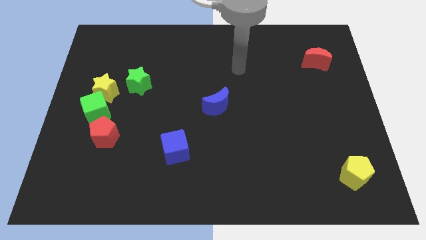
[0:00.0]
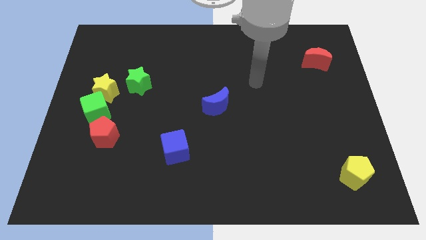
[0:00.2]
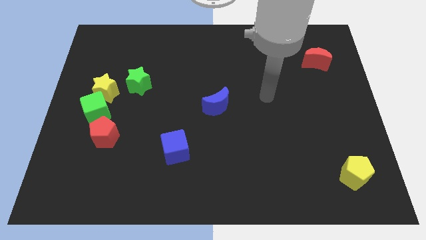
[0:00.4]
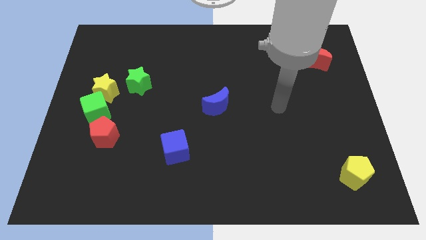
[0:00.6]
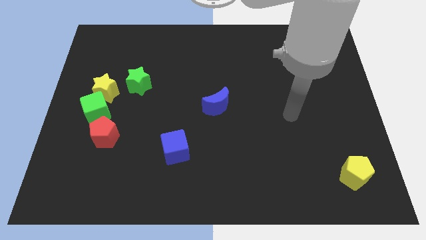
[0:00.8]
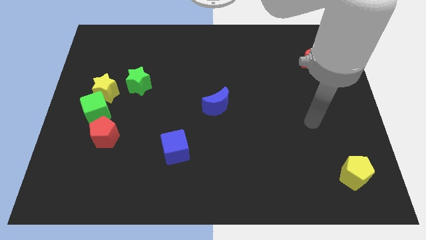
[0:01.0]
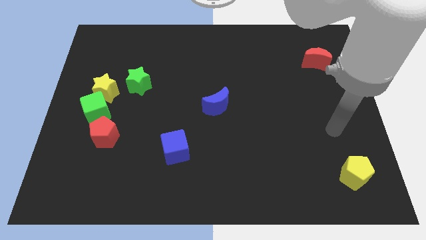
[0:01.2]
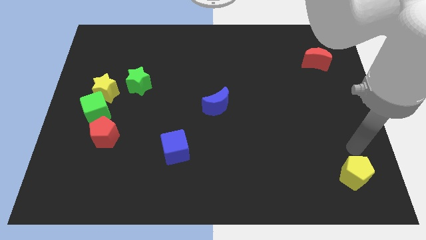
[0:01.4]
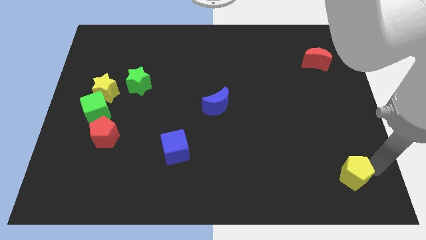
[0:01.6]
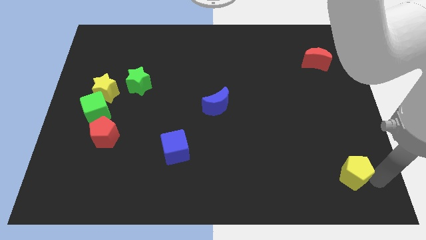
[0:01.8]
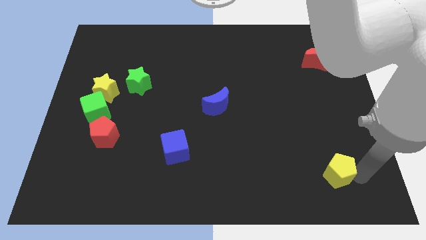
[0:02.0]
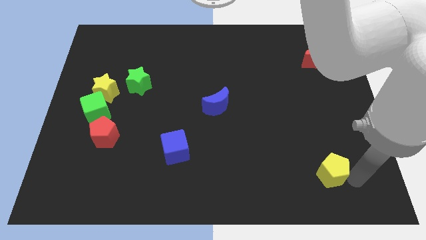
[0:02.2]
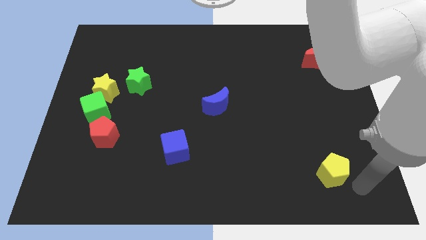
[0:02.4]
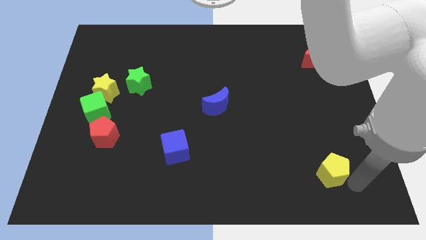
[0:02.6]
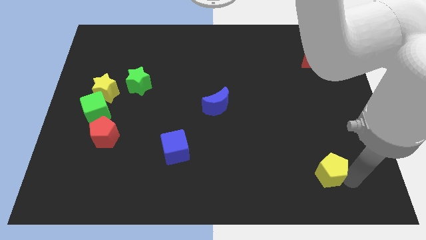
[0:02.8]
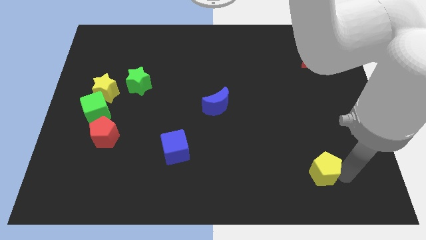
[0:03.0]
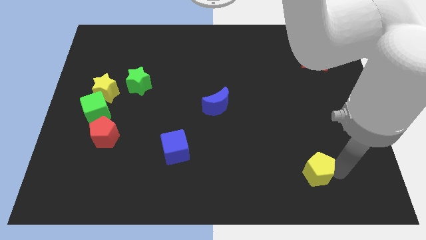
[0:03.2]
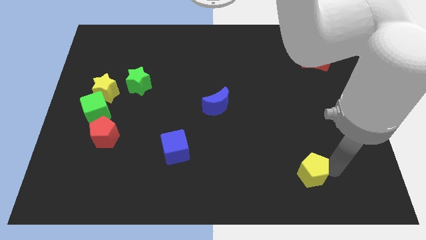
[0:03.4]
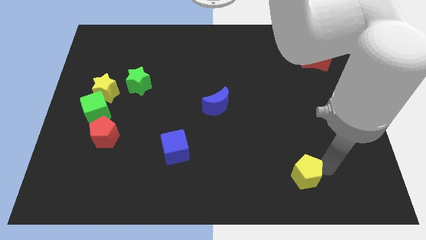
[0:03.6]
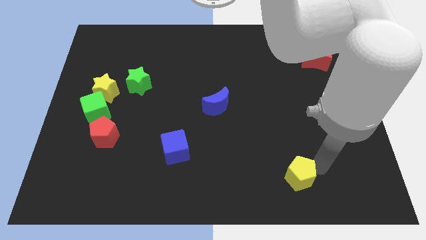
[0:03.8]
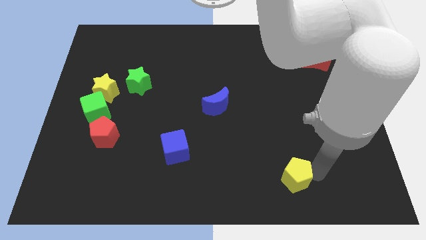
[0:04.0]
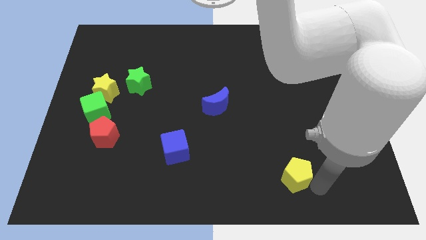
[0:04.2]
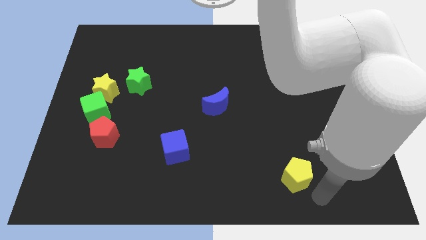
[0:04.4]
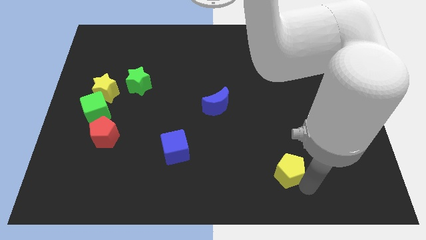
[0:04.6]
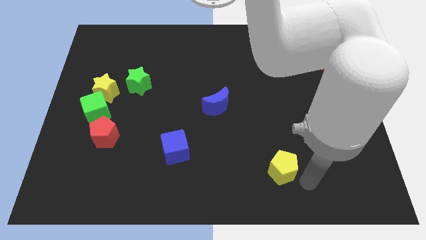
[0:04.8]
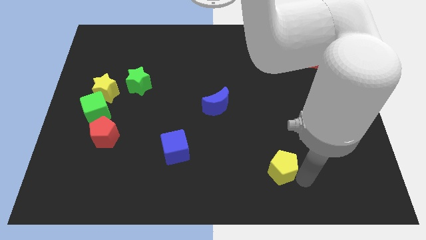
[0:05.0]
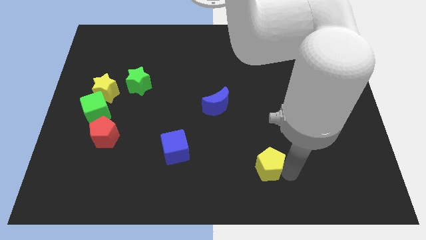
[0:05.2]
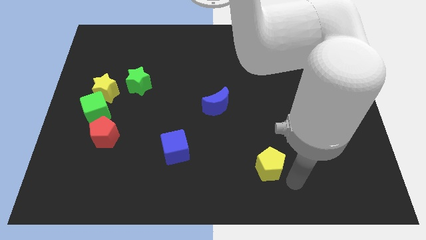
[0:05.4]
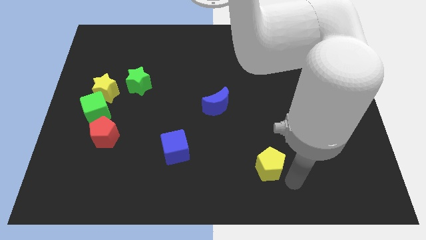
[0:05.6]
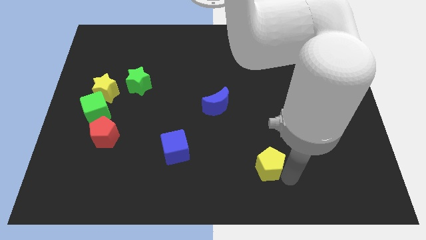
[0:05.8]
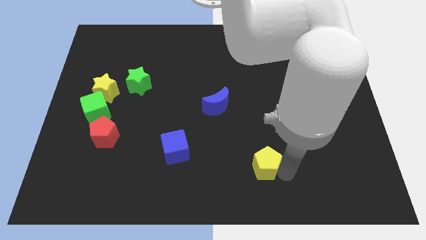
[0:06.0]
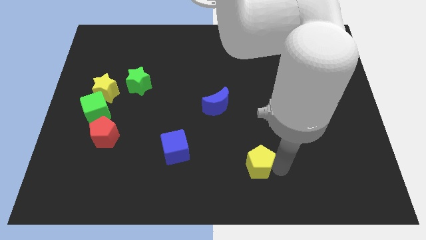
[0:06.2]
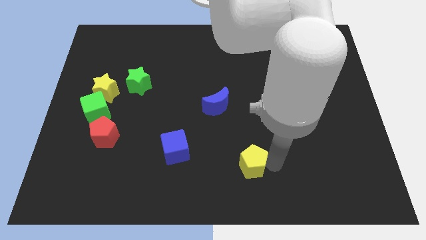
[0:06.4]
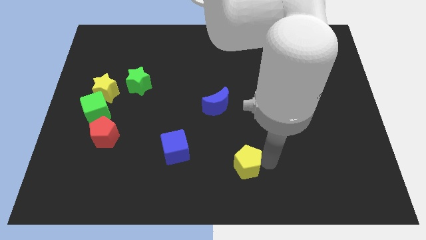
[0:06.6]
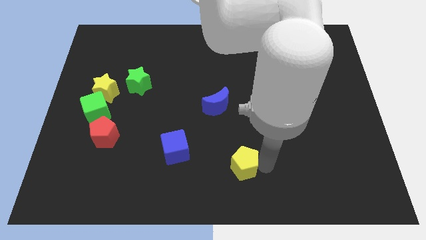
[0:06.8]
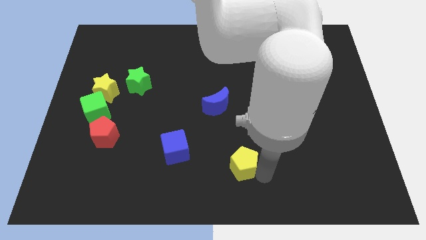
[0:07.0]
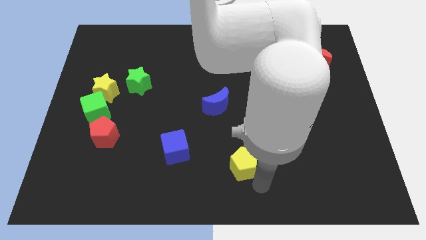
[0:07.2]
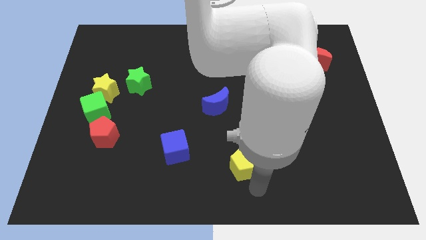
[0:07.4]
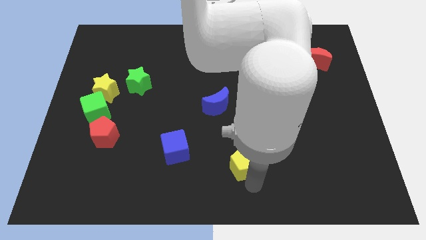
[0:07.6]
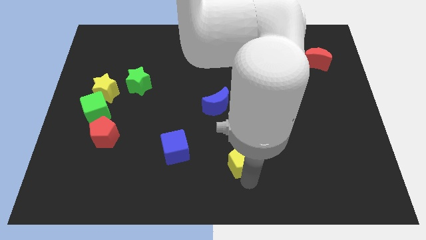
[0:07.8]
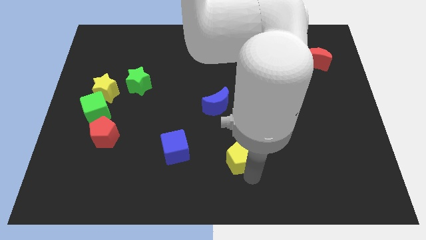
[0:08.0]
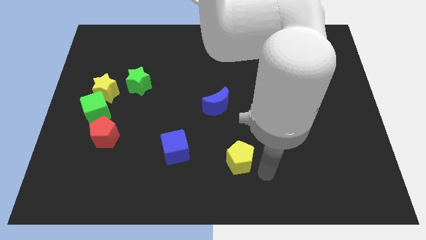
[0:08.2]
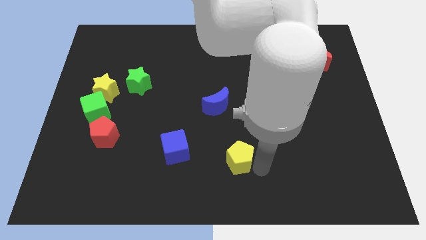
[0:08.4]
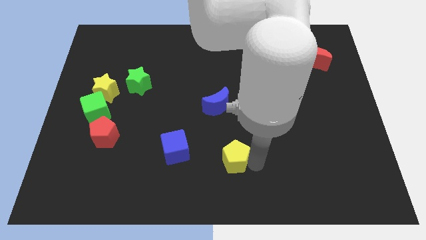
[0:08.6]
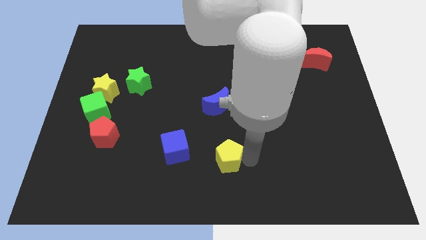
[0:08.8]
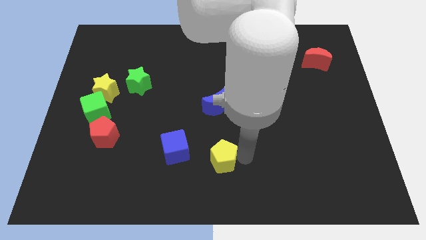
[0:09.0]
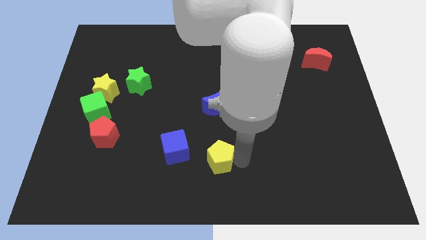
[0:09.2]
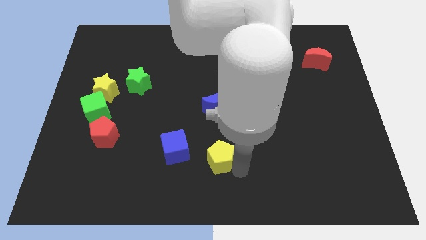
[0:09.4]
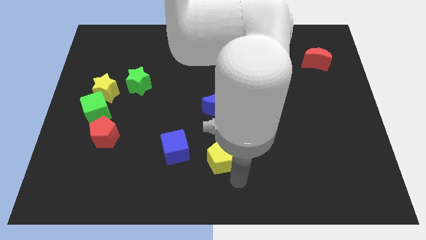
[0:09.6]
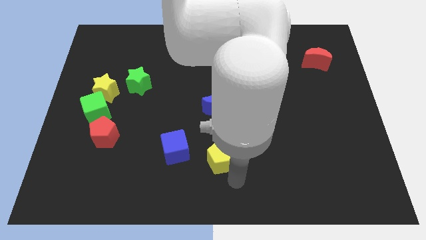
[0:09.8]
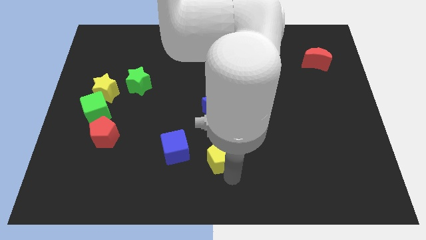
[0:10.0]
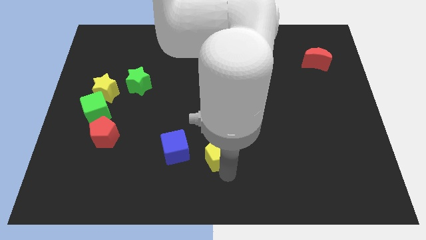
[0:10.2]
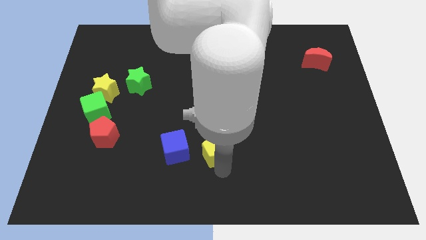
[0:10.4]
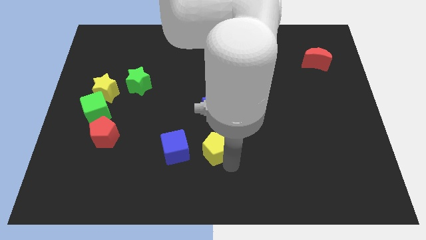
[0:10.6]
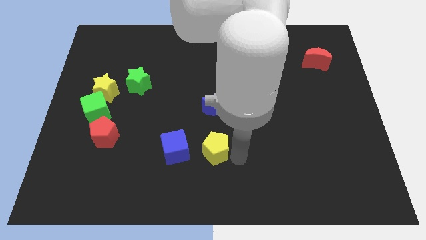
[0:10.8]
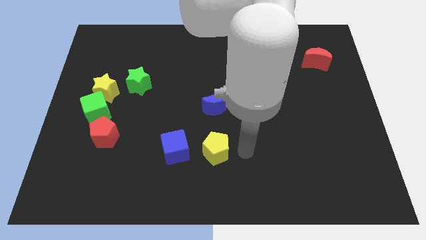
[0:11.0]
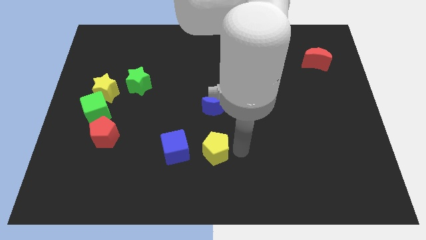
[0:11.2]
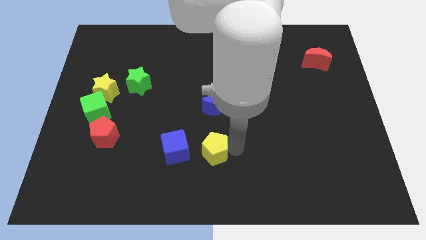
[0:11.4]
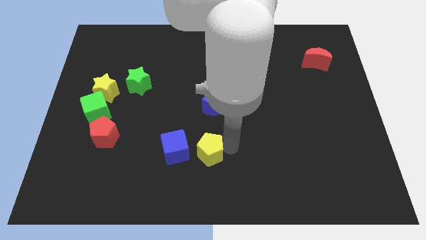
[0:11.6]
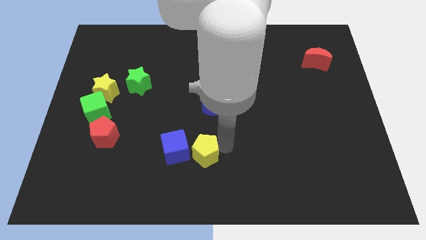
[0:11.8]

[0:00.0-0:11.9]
push the yellow pentagon towards the blue cube

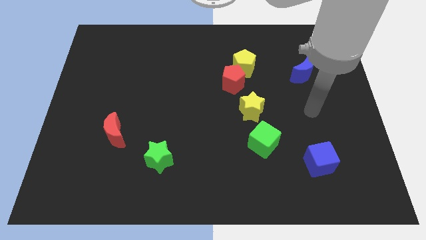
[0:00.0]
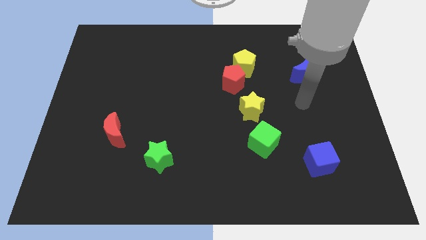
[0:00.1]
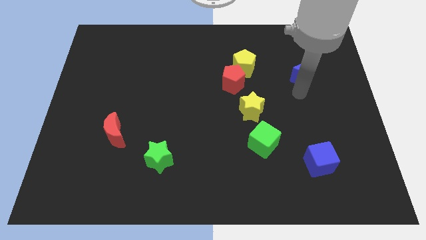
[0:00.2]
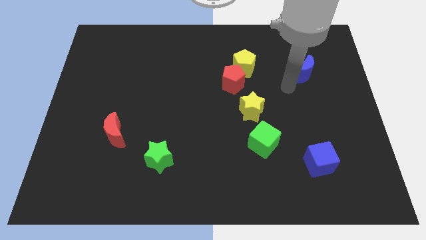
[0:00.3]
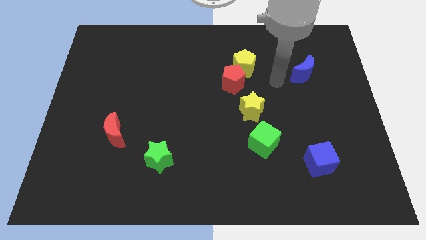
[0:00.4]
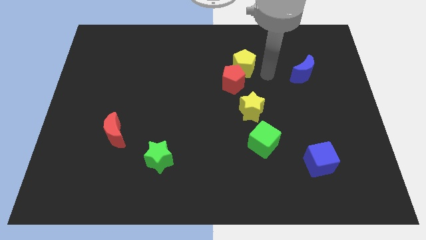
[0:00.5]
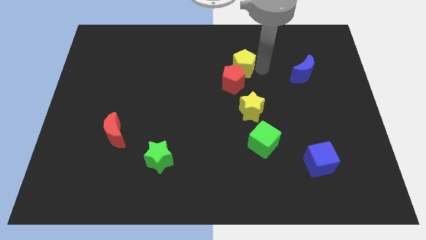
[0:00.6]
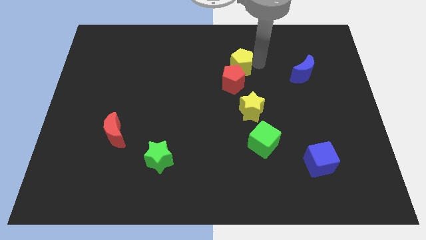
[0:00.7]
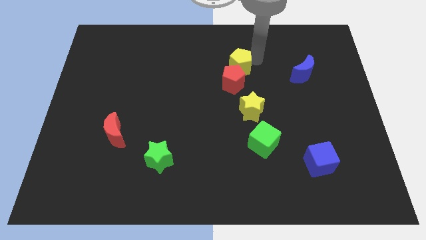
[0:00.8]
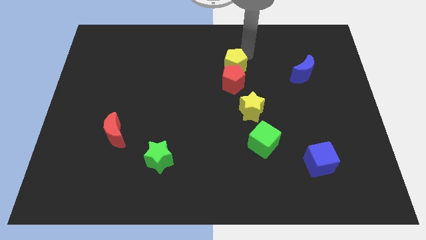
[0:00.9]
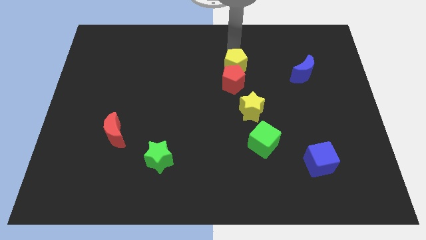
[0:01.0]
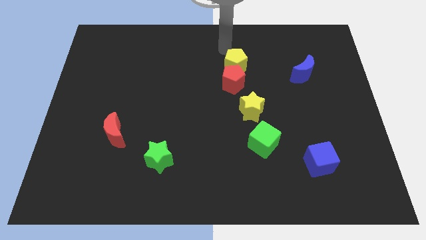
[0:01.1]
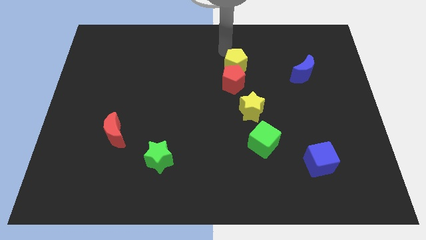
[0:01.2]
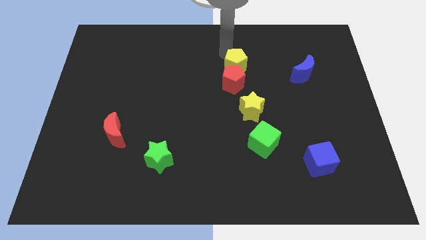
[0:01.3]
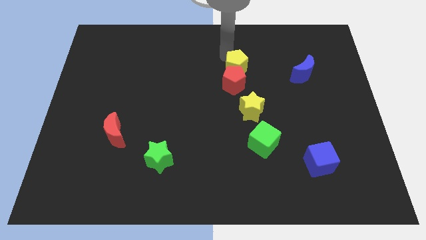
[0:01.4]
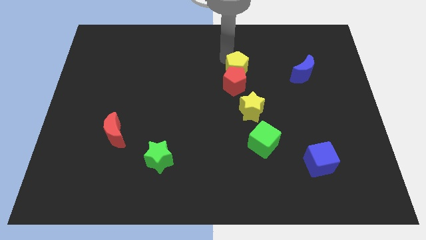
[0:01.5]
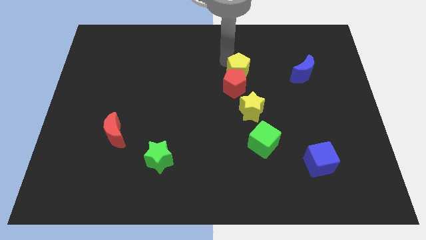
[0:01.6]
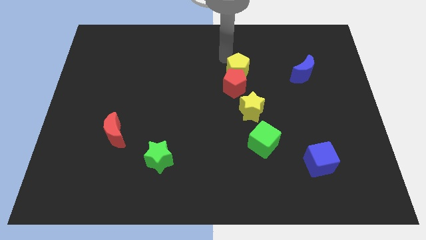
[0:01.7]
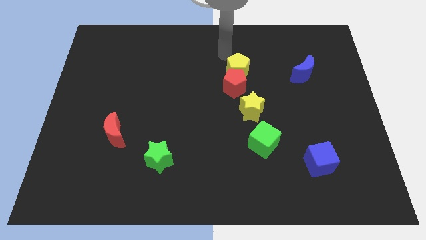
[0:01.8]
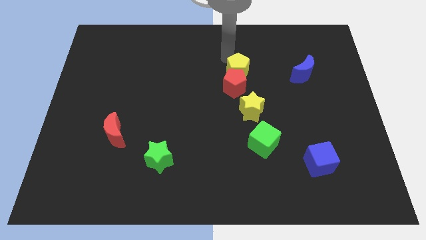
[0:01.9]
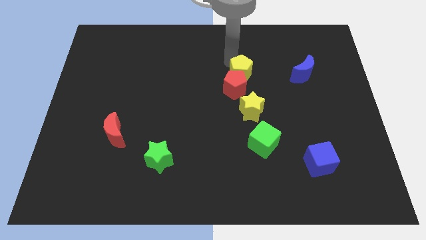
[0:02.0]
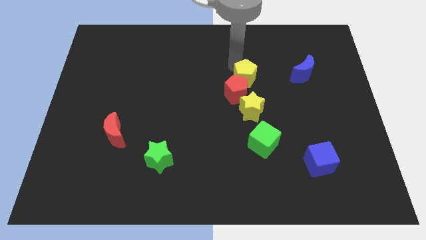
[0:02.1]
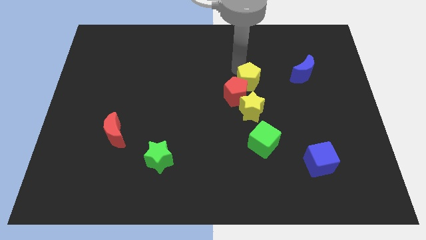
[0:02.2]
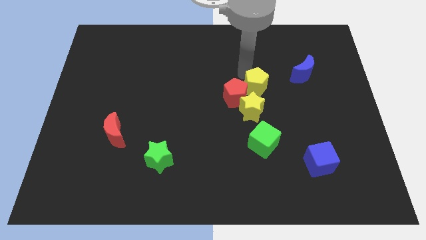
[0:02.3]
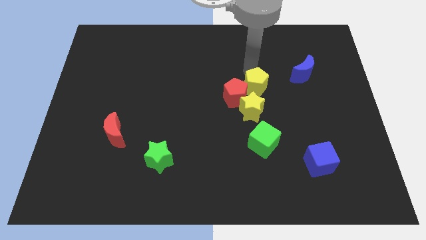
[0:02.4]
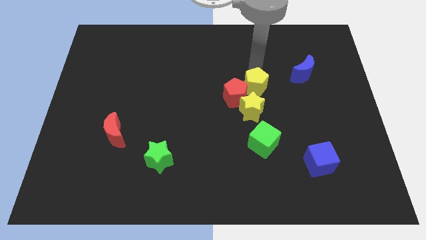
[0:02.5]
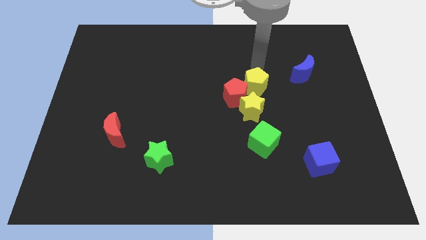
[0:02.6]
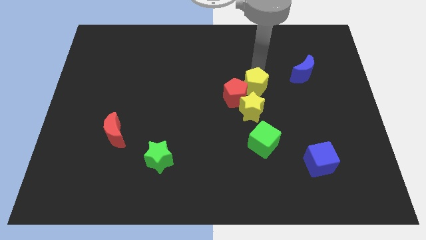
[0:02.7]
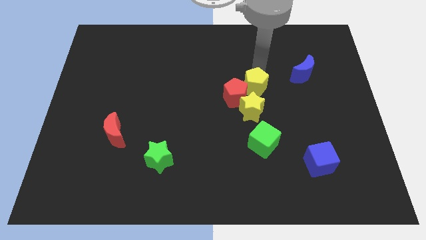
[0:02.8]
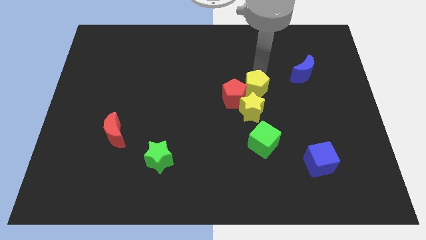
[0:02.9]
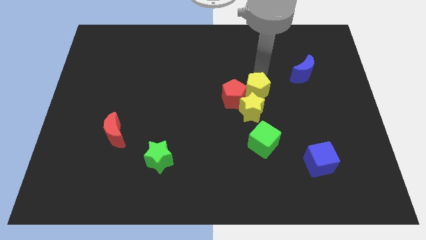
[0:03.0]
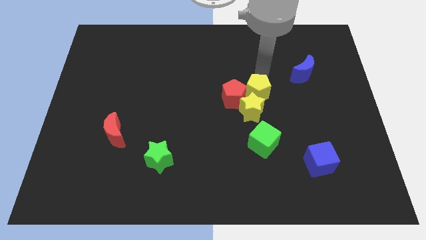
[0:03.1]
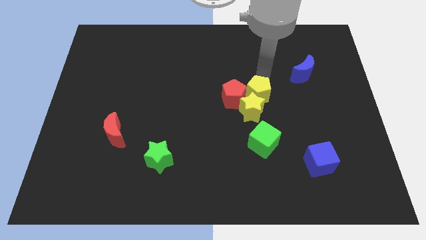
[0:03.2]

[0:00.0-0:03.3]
move the yellow pentagon towards the yellow star
